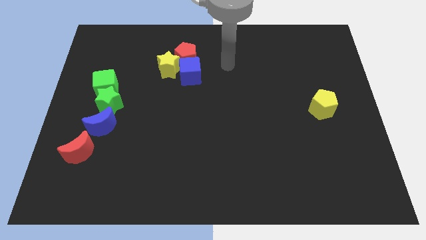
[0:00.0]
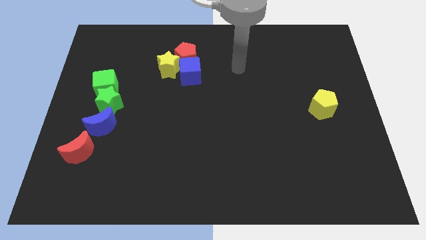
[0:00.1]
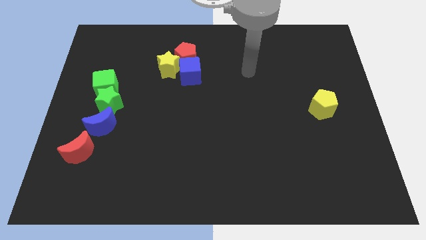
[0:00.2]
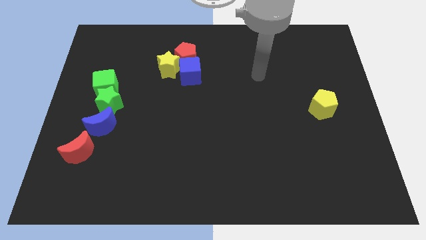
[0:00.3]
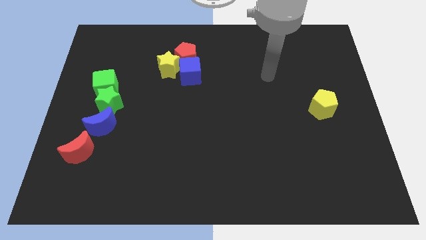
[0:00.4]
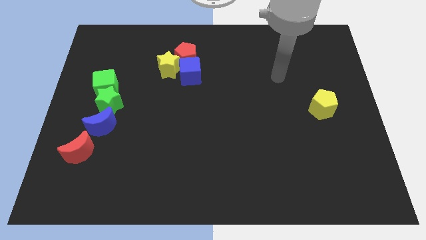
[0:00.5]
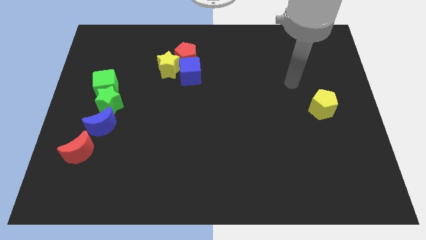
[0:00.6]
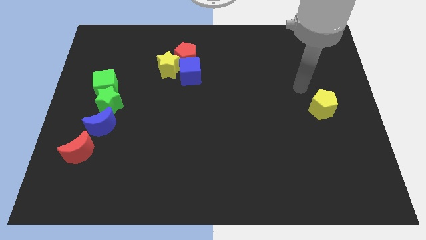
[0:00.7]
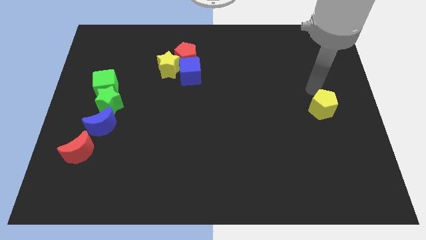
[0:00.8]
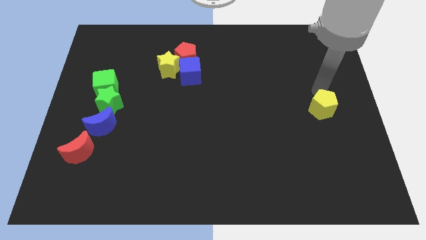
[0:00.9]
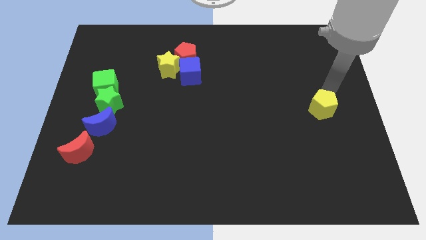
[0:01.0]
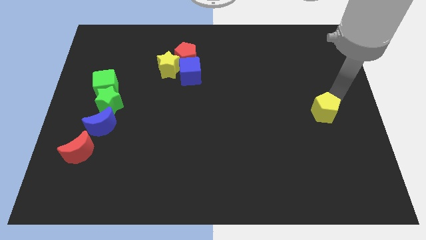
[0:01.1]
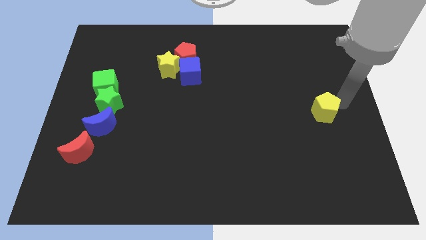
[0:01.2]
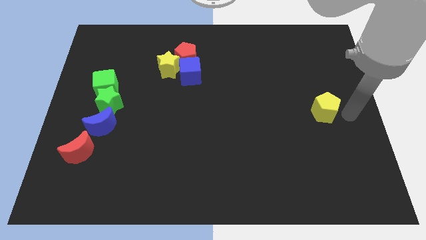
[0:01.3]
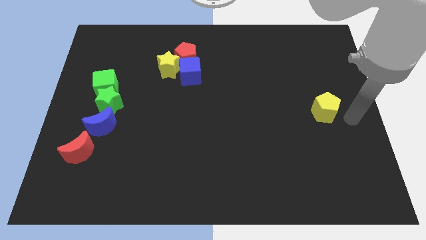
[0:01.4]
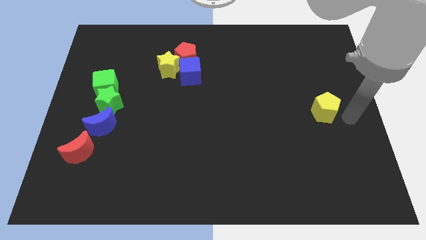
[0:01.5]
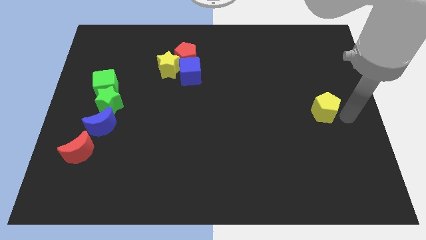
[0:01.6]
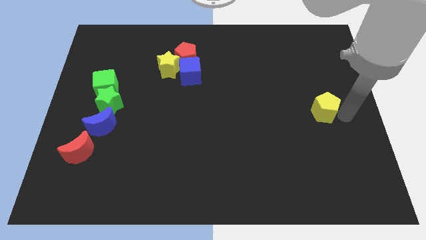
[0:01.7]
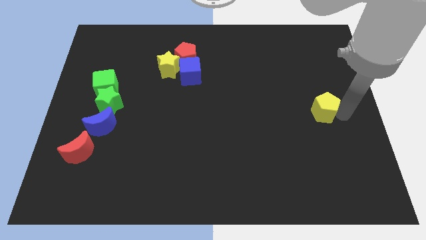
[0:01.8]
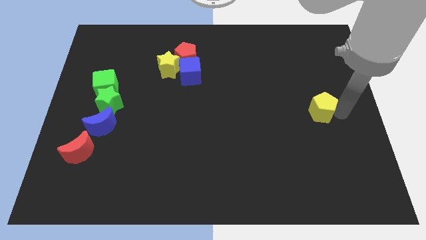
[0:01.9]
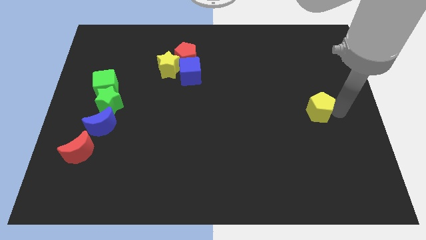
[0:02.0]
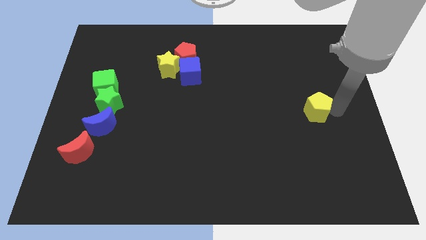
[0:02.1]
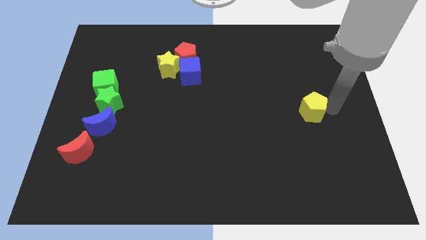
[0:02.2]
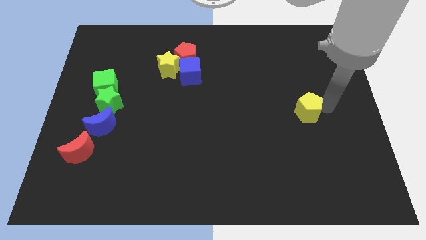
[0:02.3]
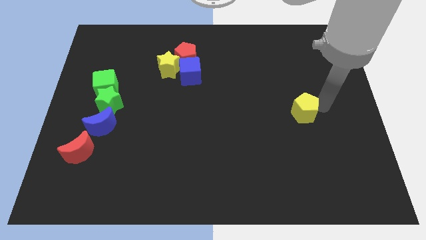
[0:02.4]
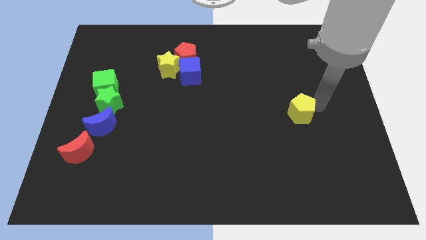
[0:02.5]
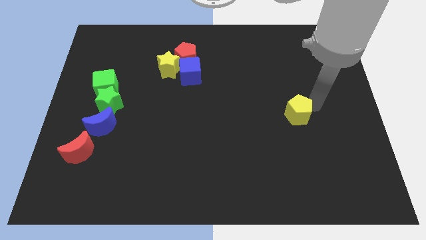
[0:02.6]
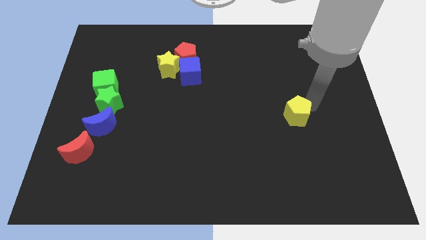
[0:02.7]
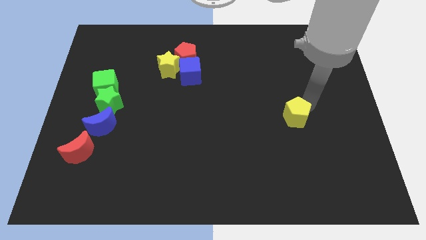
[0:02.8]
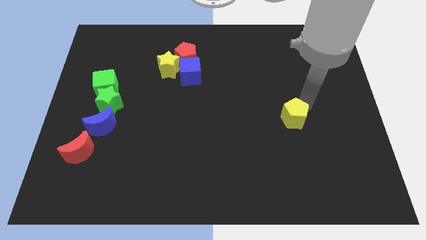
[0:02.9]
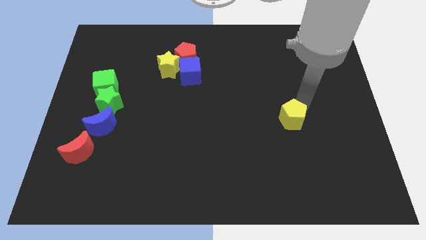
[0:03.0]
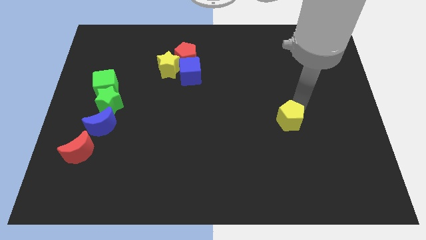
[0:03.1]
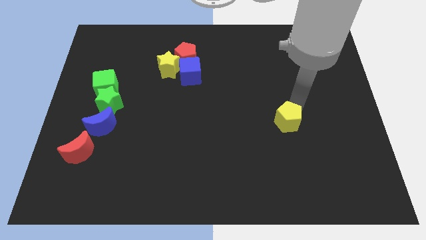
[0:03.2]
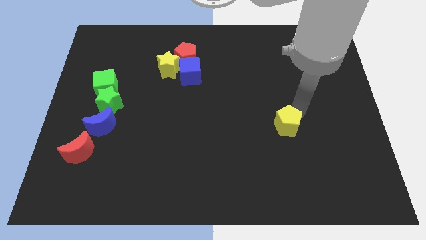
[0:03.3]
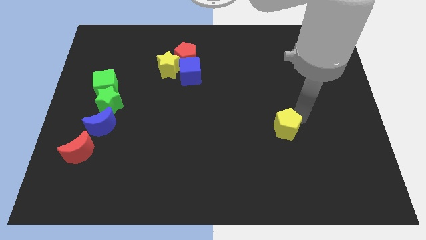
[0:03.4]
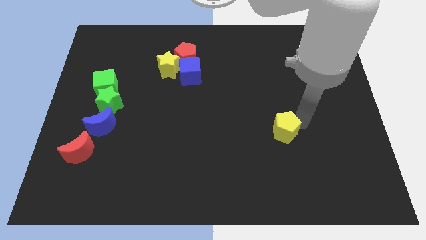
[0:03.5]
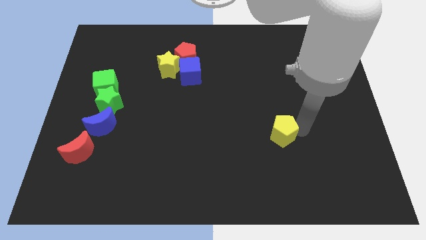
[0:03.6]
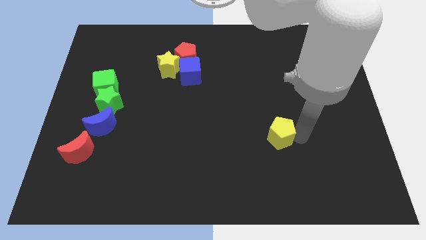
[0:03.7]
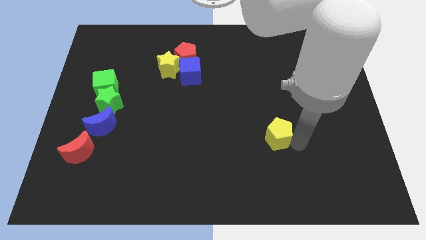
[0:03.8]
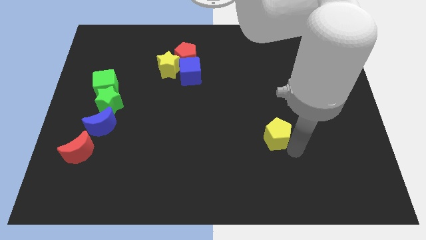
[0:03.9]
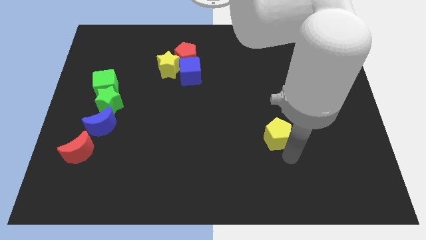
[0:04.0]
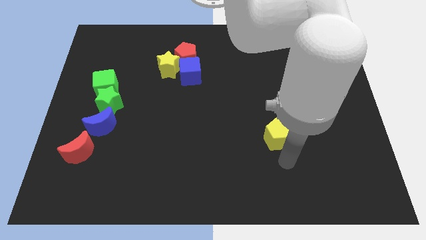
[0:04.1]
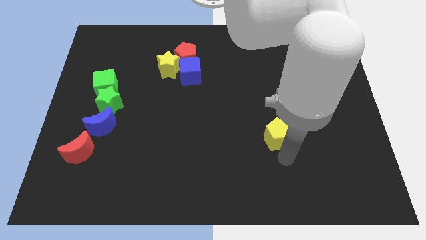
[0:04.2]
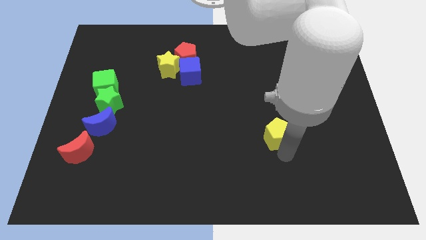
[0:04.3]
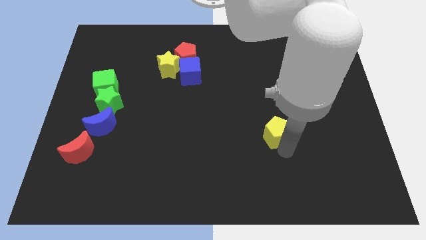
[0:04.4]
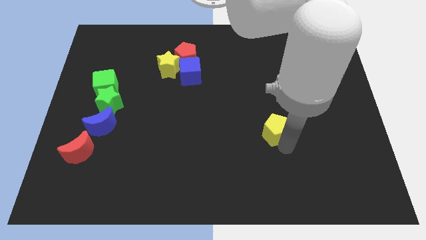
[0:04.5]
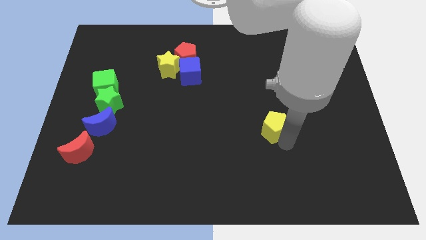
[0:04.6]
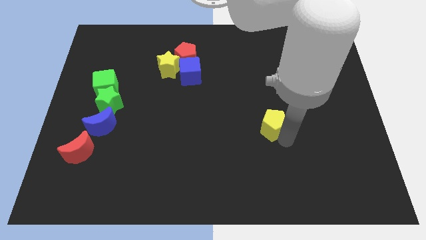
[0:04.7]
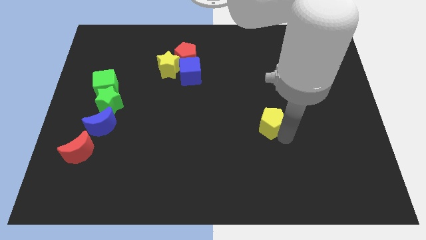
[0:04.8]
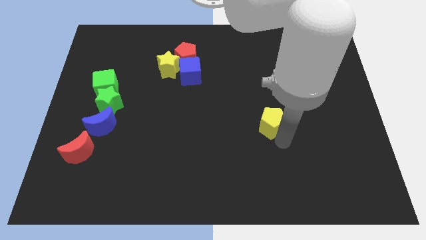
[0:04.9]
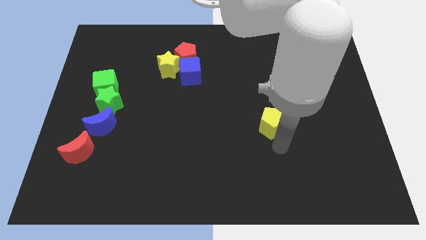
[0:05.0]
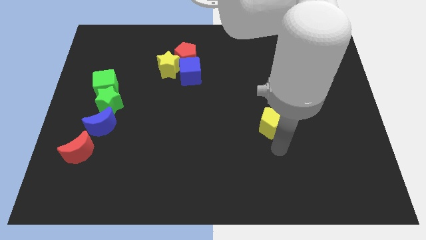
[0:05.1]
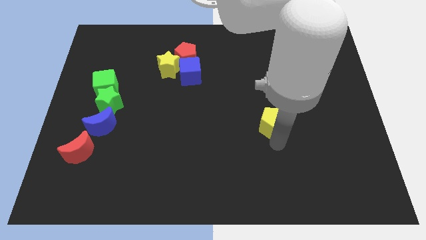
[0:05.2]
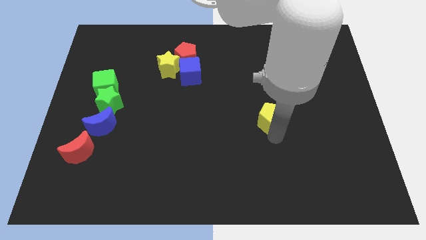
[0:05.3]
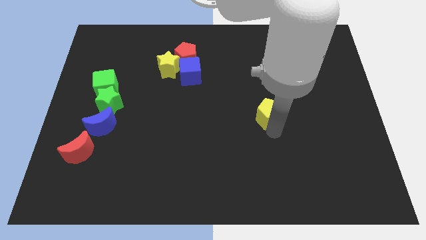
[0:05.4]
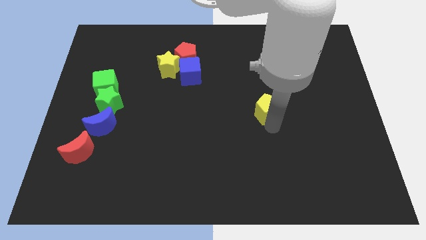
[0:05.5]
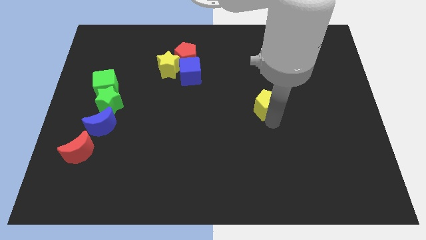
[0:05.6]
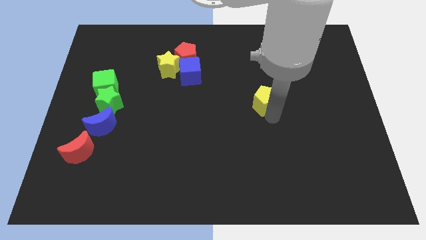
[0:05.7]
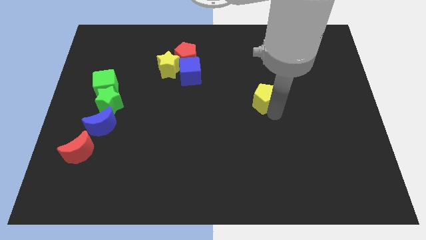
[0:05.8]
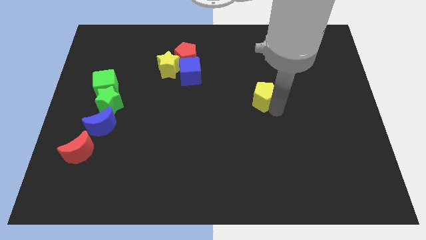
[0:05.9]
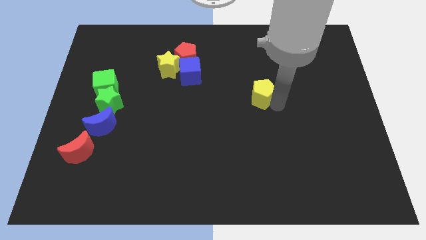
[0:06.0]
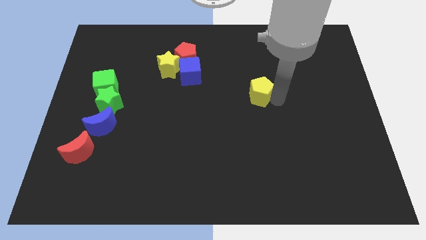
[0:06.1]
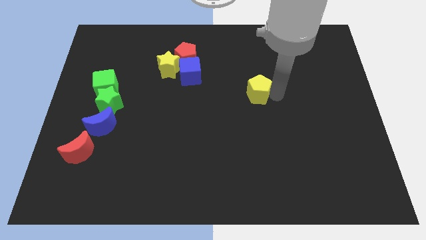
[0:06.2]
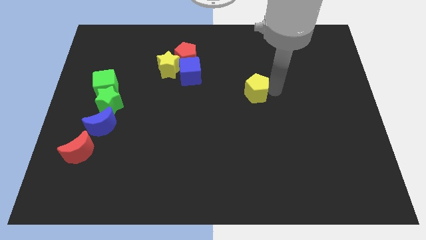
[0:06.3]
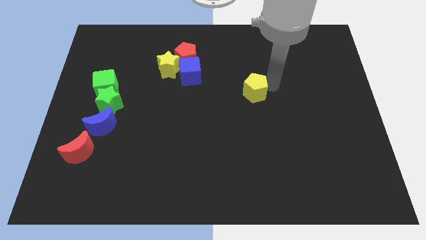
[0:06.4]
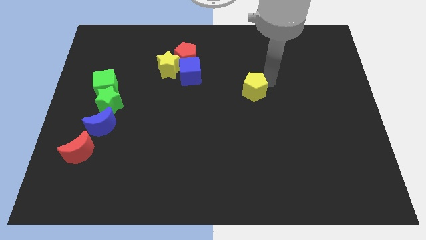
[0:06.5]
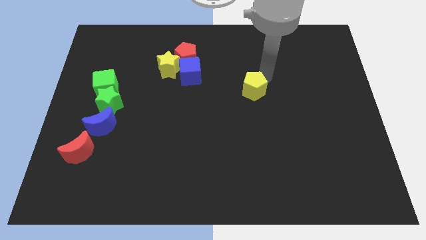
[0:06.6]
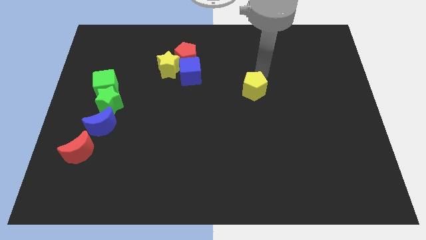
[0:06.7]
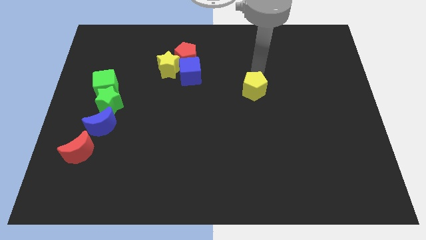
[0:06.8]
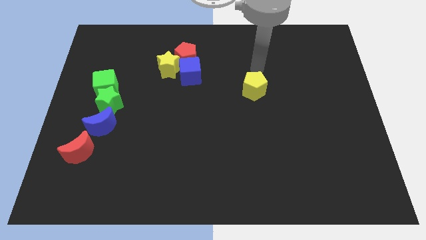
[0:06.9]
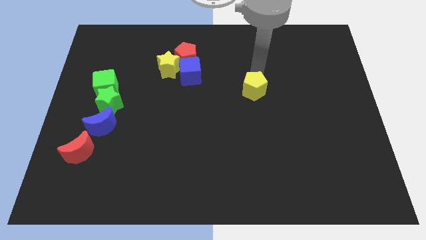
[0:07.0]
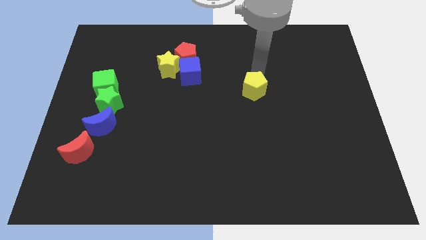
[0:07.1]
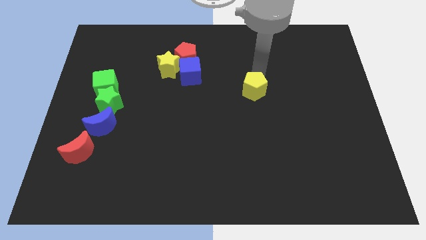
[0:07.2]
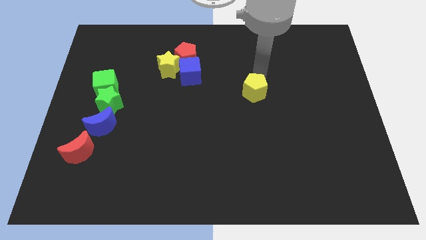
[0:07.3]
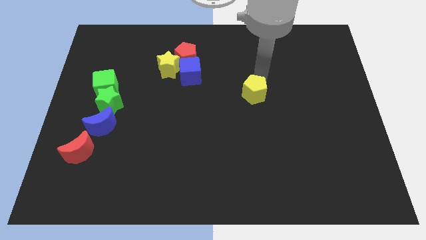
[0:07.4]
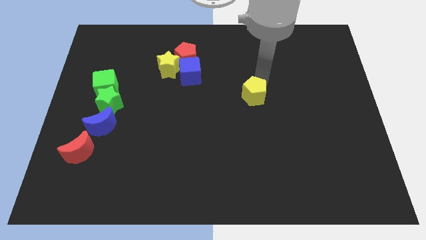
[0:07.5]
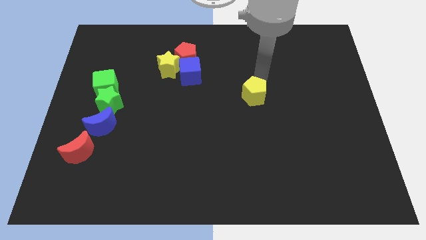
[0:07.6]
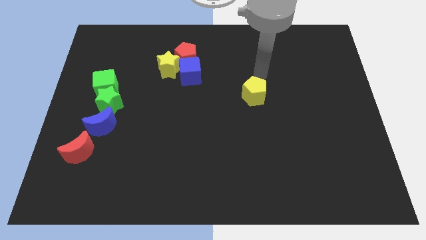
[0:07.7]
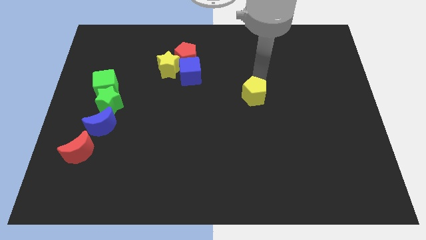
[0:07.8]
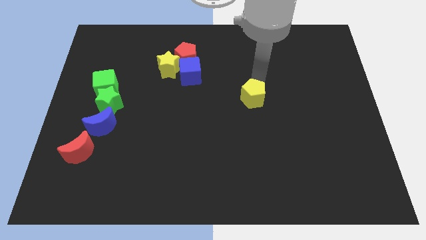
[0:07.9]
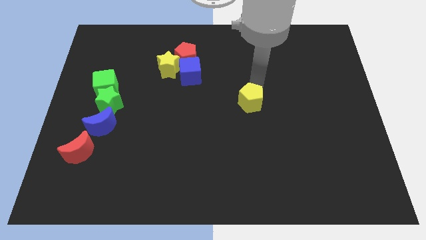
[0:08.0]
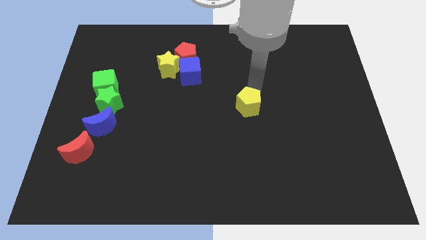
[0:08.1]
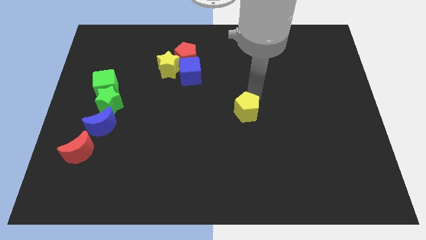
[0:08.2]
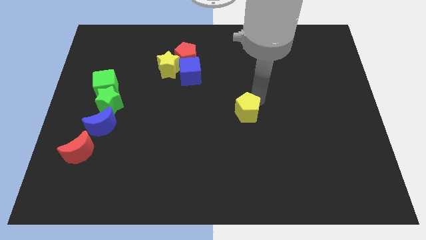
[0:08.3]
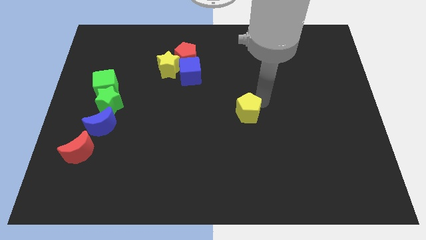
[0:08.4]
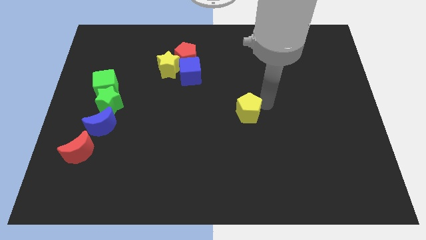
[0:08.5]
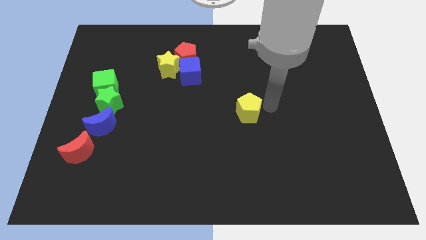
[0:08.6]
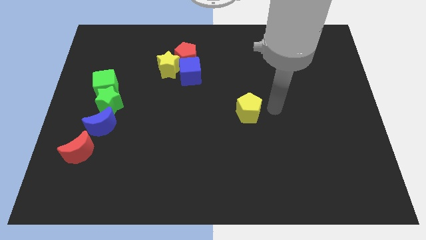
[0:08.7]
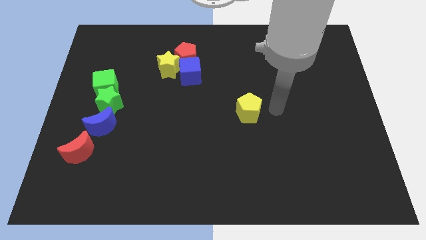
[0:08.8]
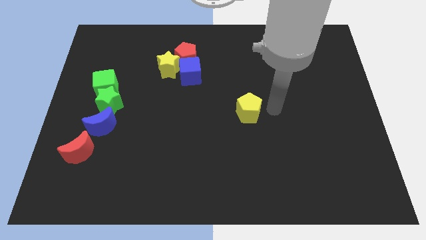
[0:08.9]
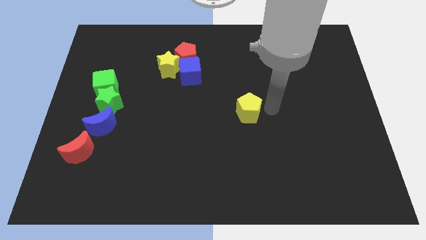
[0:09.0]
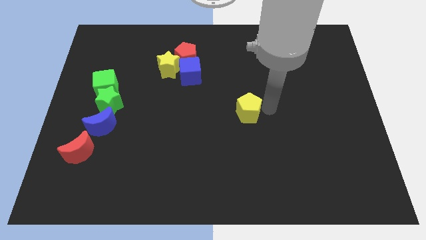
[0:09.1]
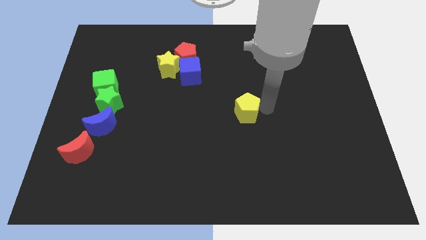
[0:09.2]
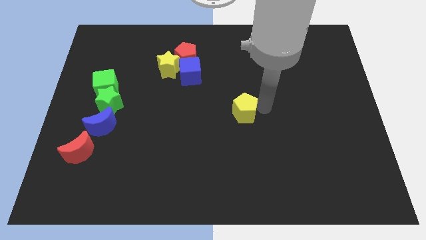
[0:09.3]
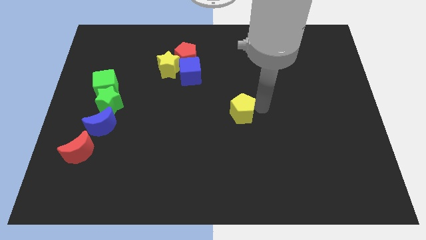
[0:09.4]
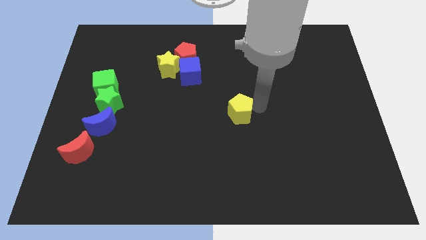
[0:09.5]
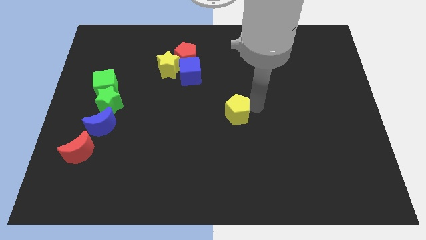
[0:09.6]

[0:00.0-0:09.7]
move the yellow pentagon left
